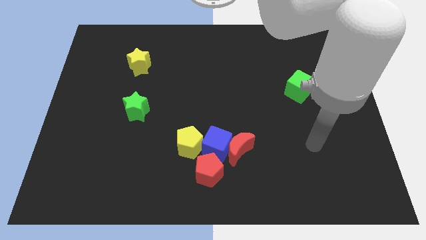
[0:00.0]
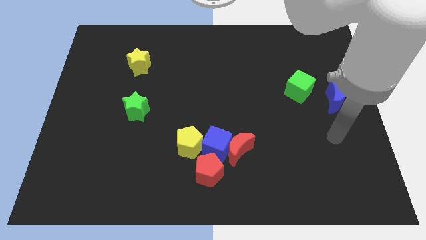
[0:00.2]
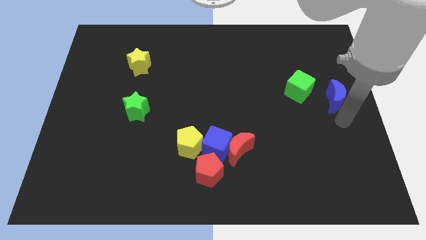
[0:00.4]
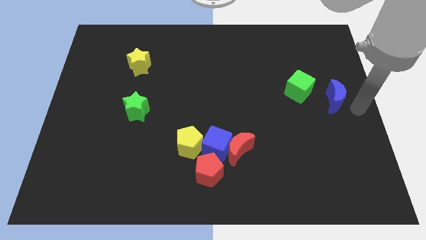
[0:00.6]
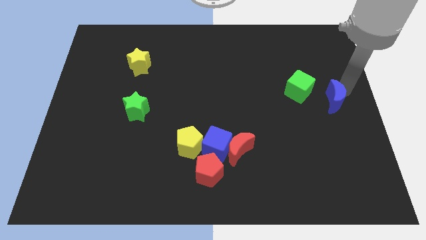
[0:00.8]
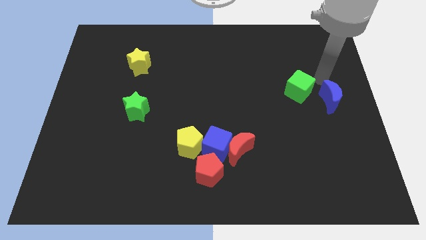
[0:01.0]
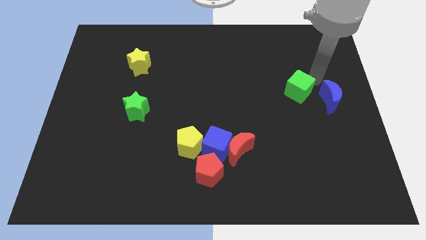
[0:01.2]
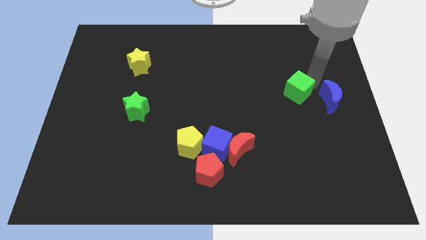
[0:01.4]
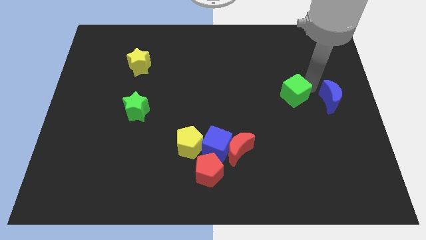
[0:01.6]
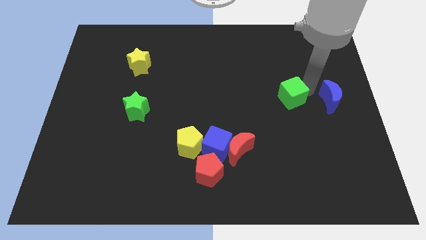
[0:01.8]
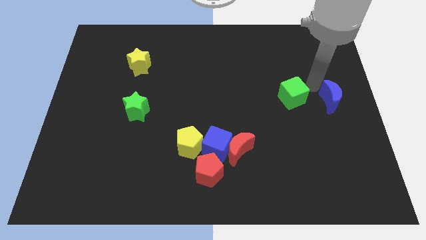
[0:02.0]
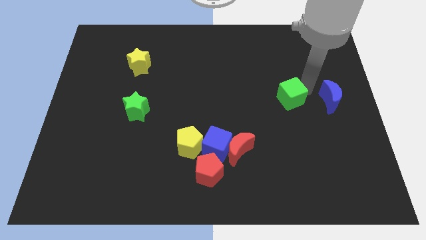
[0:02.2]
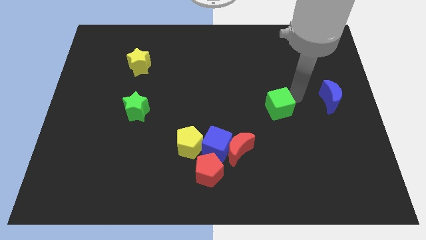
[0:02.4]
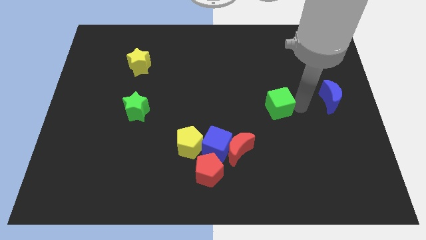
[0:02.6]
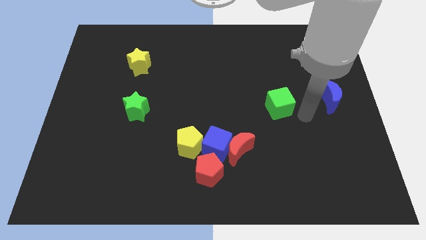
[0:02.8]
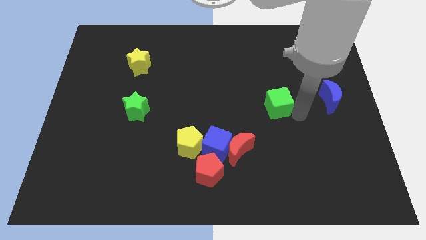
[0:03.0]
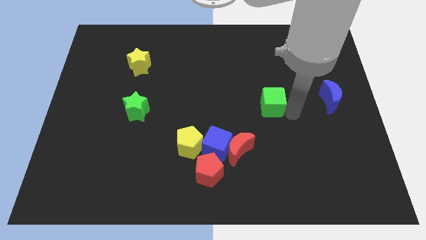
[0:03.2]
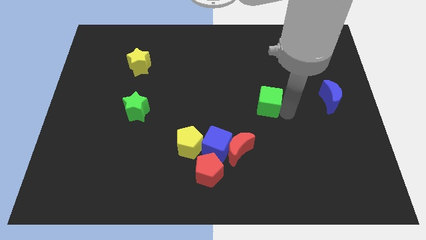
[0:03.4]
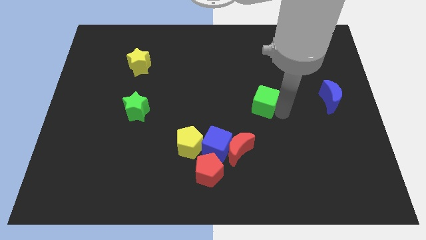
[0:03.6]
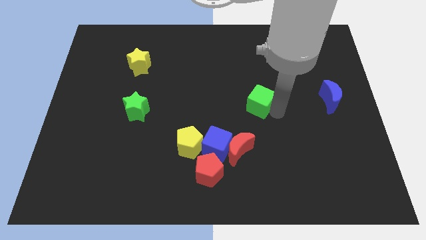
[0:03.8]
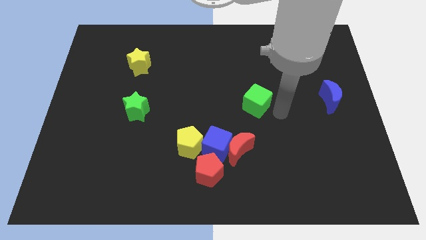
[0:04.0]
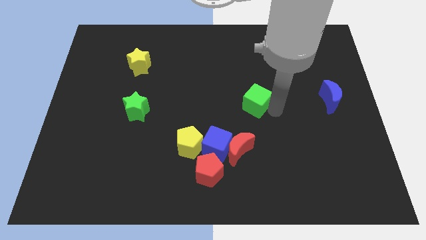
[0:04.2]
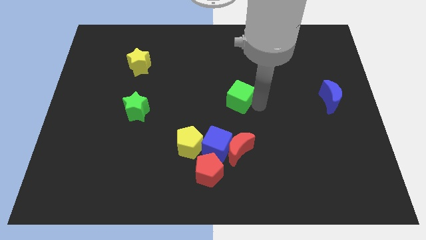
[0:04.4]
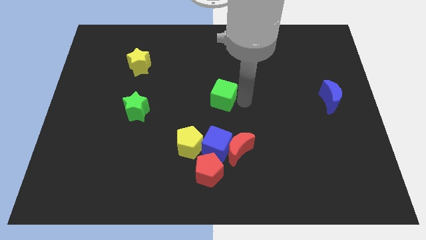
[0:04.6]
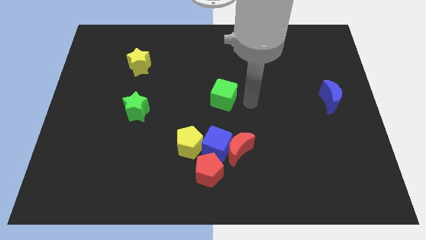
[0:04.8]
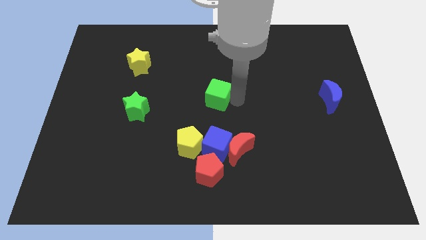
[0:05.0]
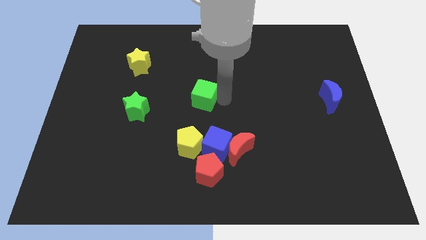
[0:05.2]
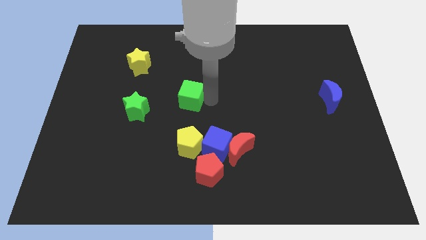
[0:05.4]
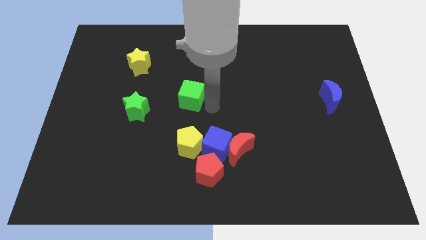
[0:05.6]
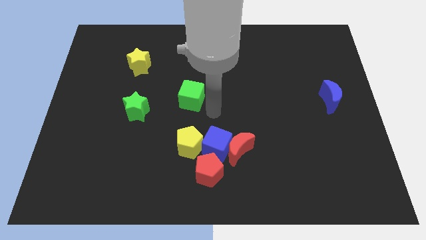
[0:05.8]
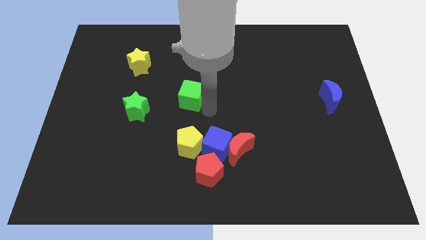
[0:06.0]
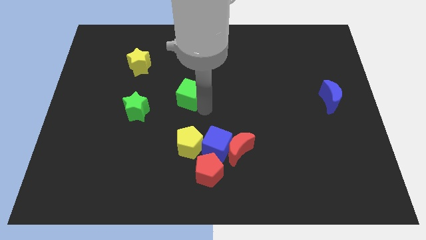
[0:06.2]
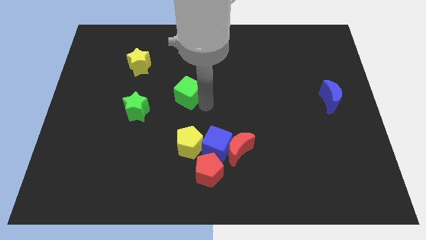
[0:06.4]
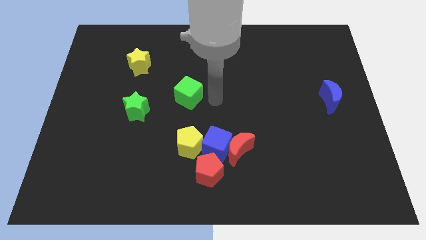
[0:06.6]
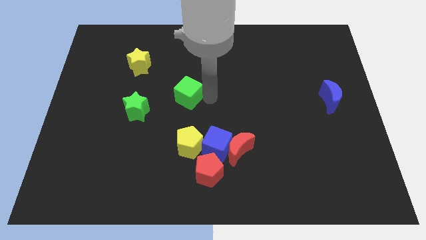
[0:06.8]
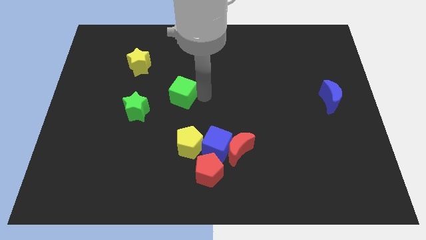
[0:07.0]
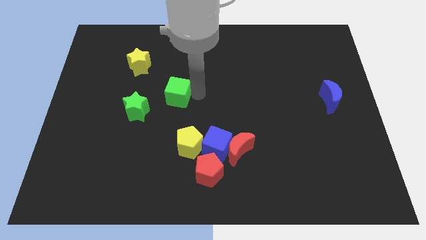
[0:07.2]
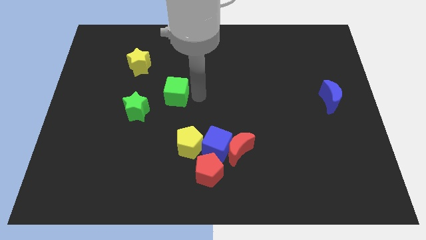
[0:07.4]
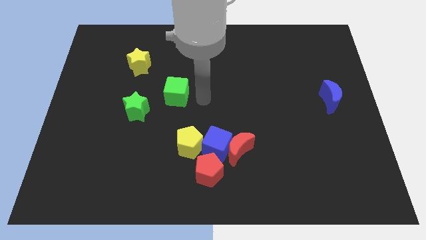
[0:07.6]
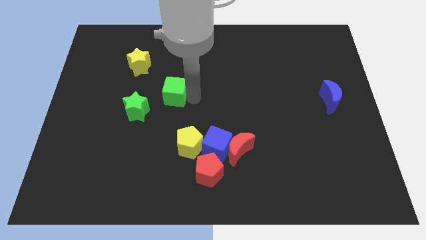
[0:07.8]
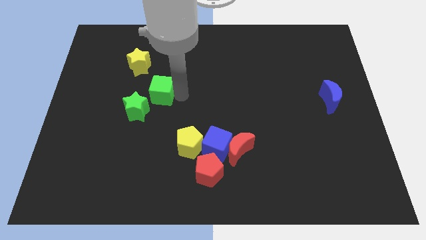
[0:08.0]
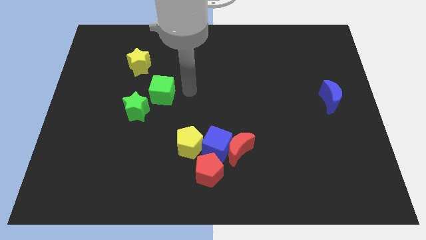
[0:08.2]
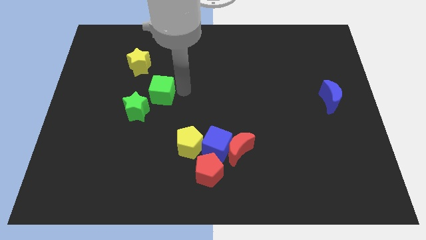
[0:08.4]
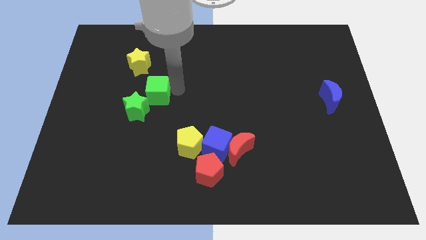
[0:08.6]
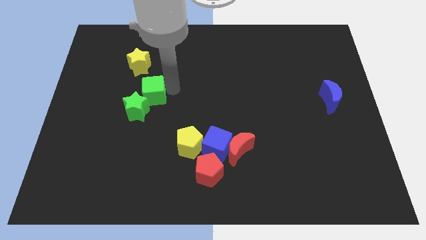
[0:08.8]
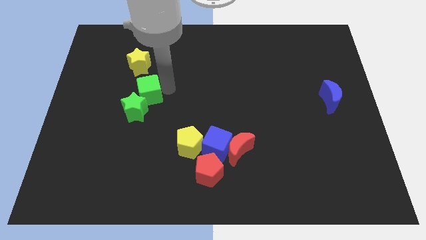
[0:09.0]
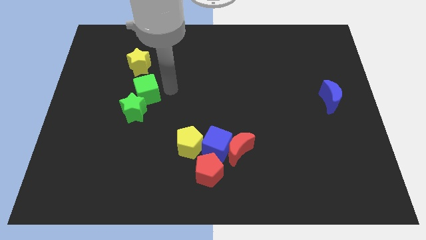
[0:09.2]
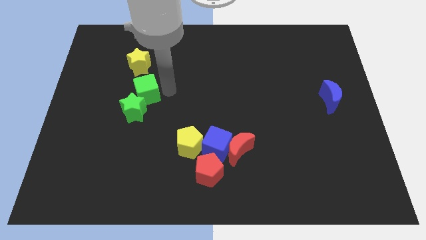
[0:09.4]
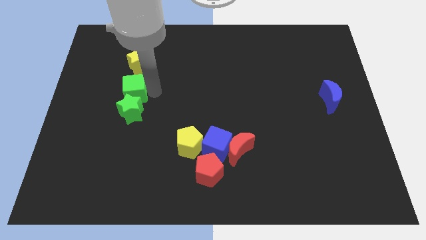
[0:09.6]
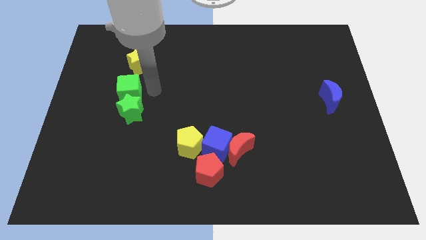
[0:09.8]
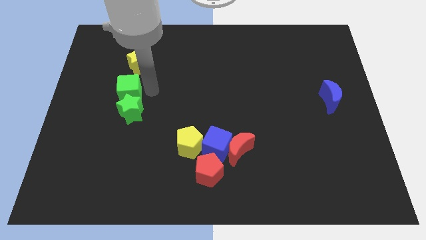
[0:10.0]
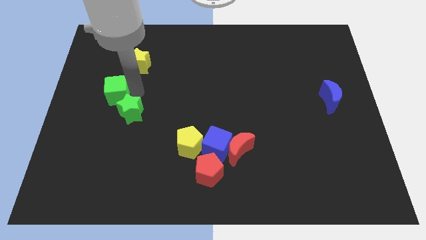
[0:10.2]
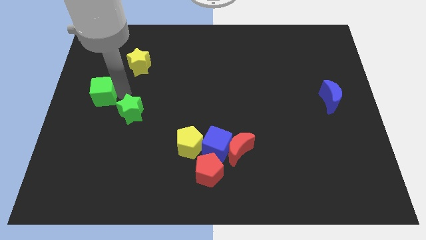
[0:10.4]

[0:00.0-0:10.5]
slide the green cube to the left side

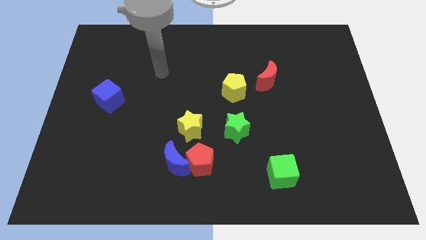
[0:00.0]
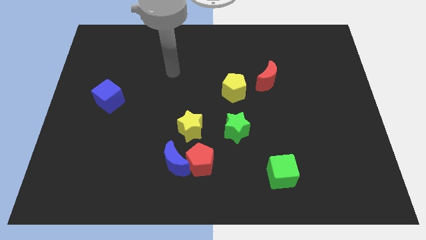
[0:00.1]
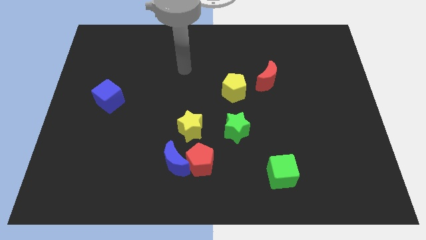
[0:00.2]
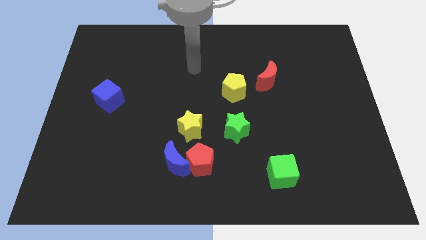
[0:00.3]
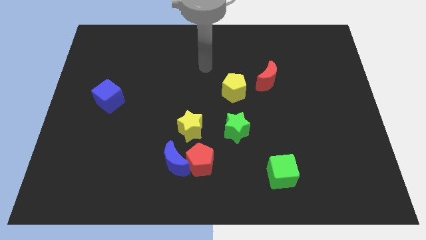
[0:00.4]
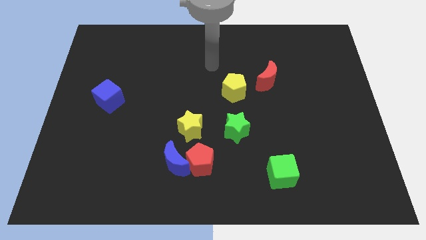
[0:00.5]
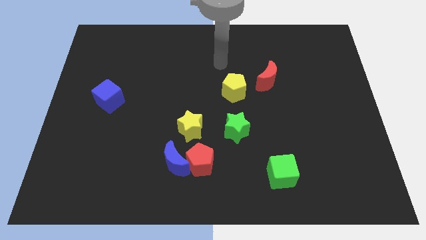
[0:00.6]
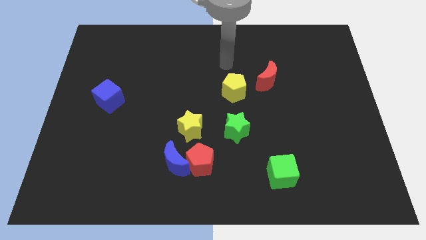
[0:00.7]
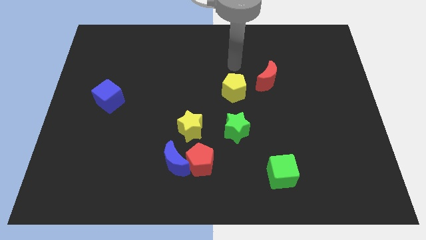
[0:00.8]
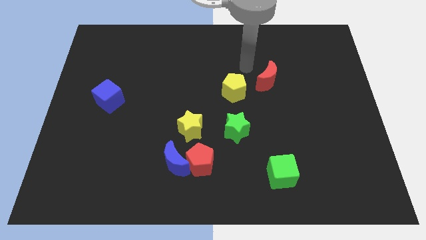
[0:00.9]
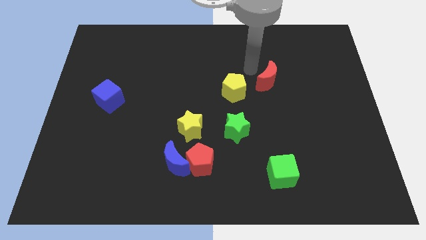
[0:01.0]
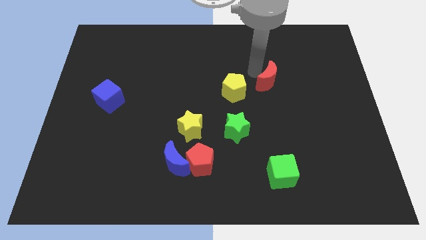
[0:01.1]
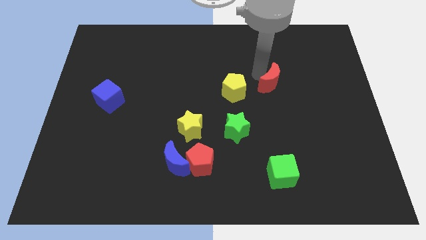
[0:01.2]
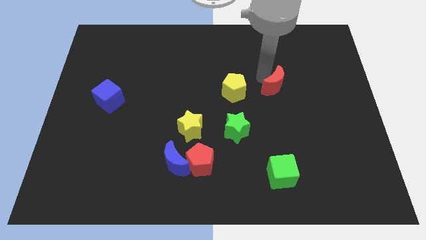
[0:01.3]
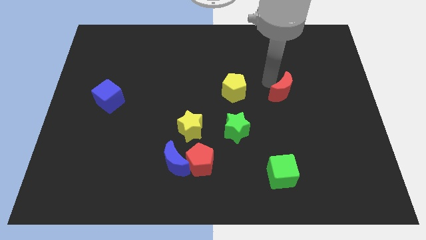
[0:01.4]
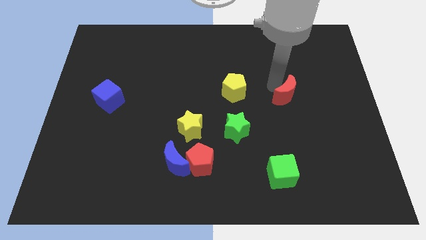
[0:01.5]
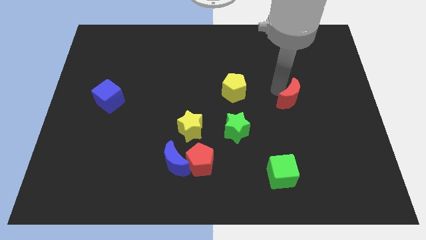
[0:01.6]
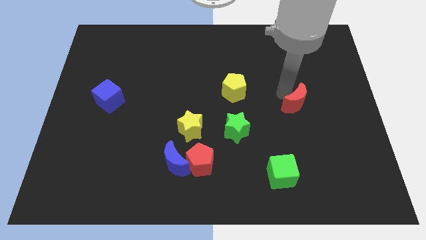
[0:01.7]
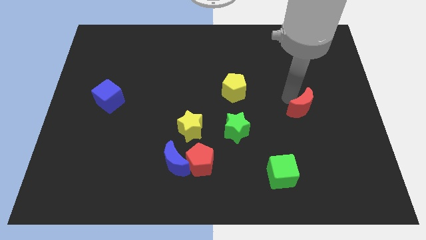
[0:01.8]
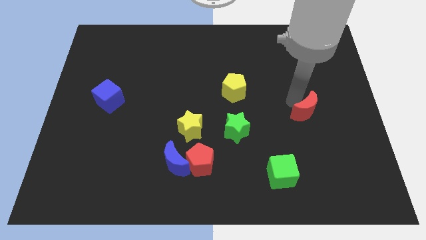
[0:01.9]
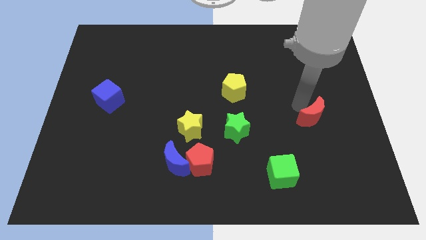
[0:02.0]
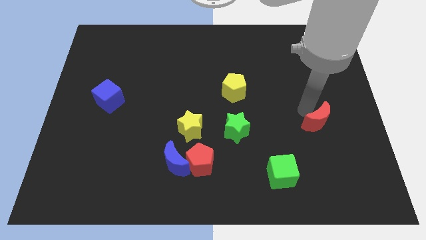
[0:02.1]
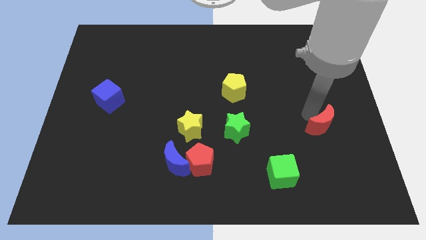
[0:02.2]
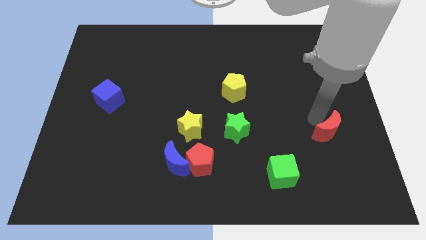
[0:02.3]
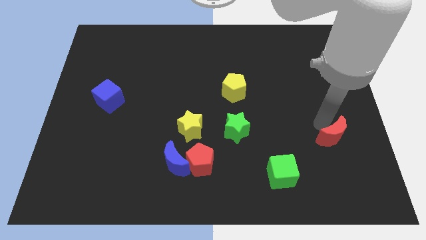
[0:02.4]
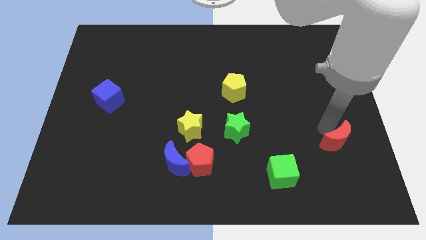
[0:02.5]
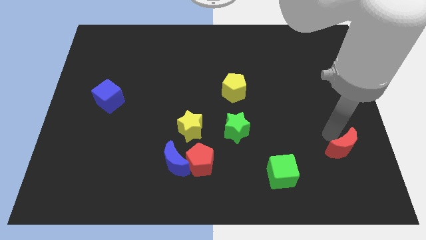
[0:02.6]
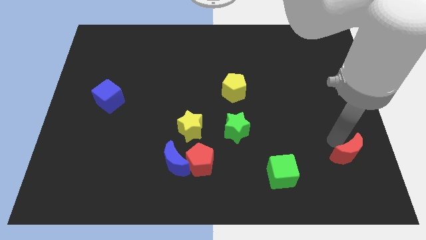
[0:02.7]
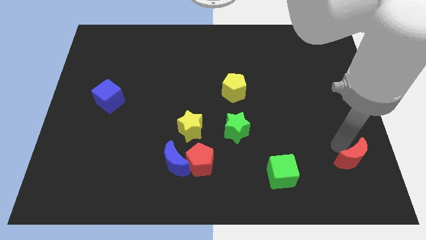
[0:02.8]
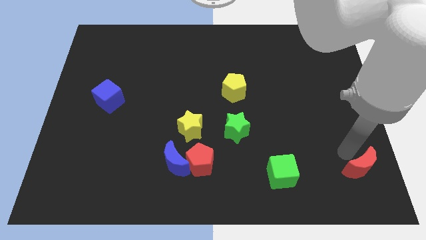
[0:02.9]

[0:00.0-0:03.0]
put the red moon to the lower right corner
